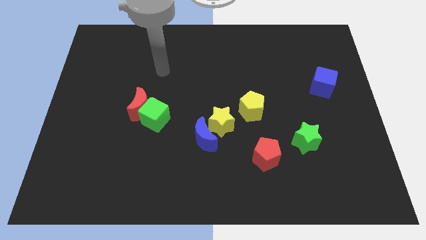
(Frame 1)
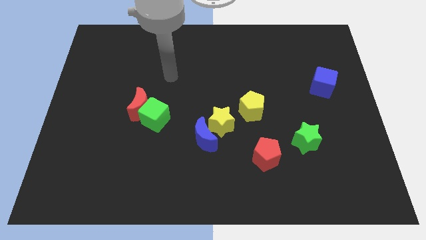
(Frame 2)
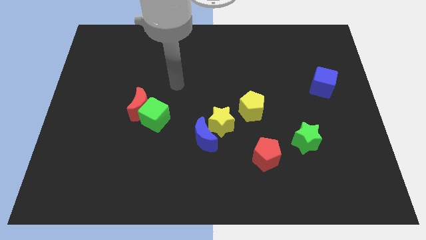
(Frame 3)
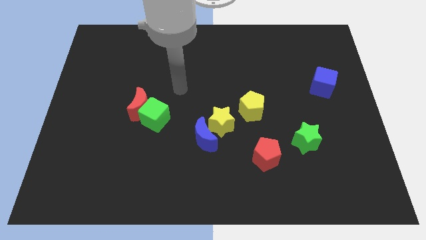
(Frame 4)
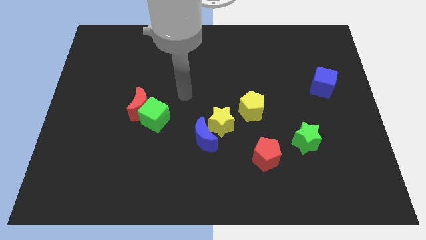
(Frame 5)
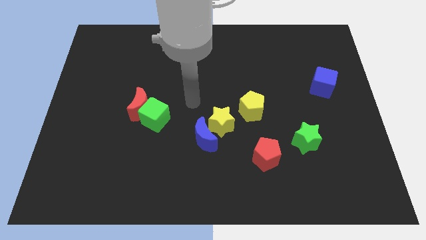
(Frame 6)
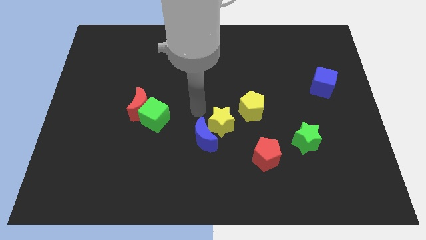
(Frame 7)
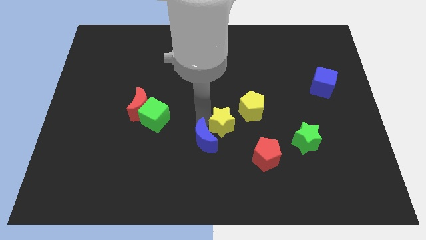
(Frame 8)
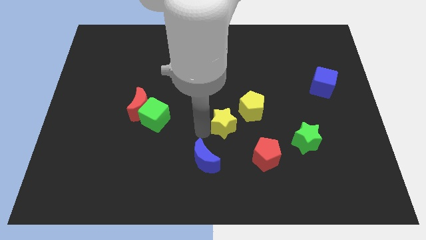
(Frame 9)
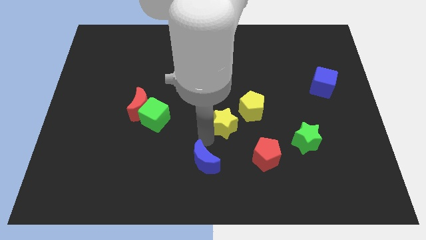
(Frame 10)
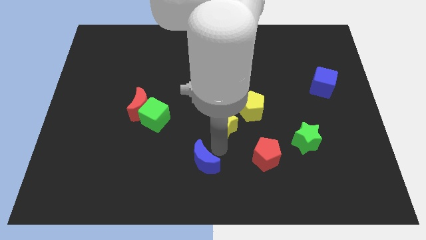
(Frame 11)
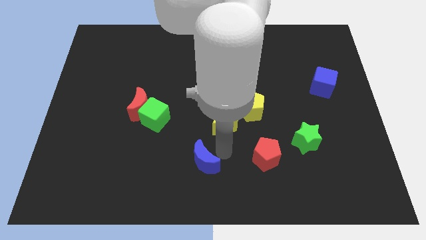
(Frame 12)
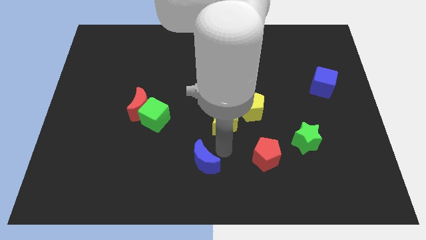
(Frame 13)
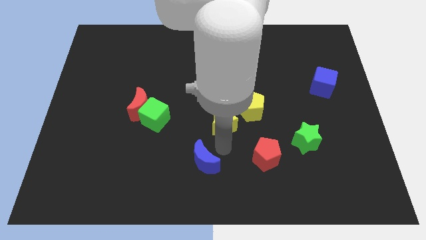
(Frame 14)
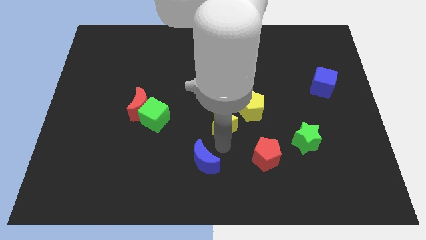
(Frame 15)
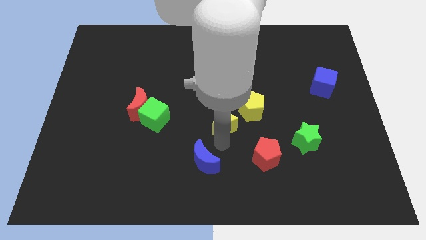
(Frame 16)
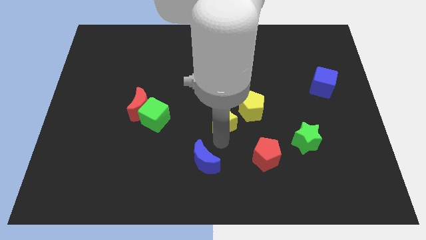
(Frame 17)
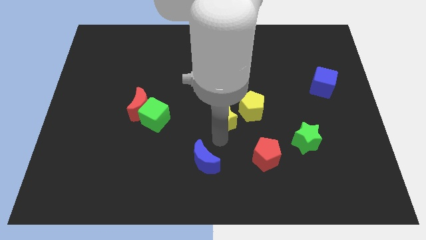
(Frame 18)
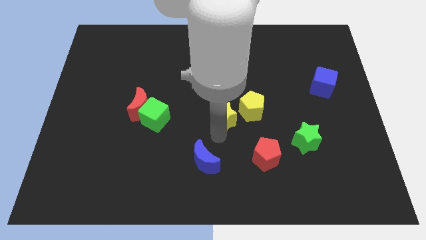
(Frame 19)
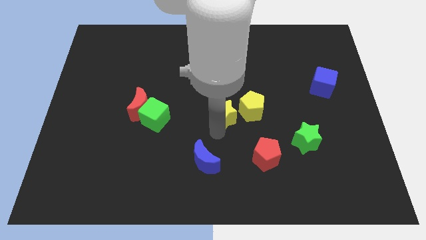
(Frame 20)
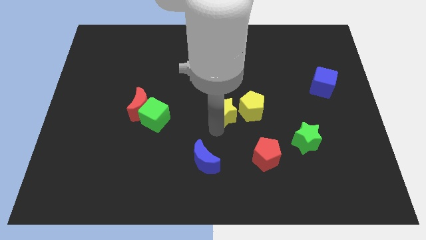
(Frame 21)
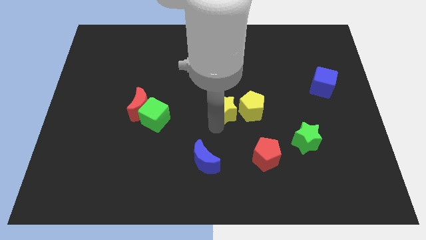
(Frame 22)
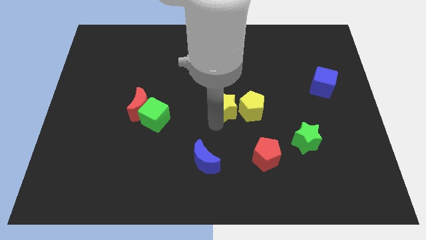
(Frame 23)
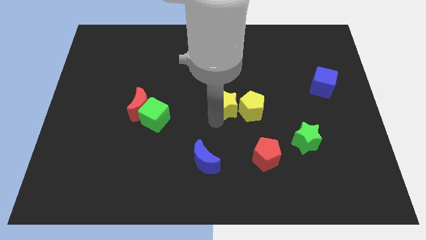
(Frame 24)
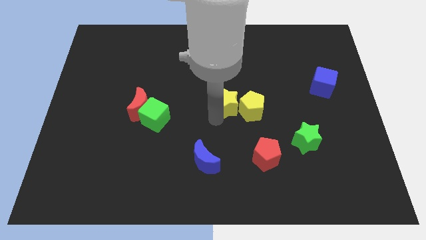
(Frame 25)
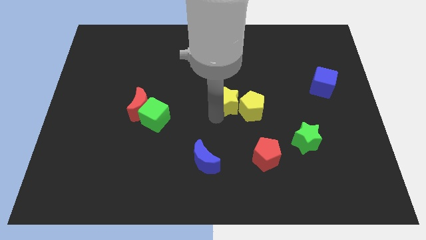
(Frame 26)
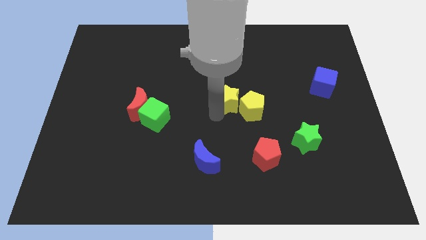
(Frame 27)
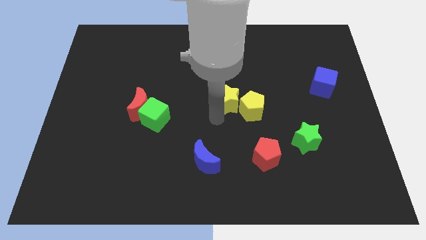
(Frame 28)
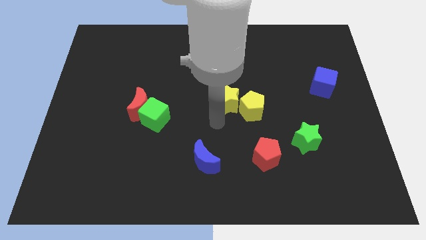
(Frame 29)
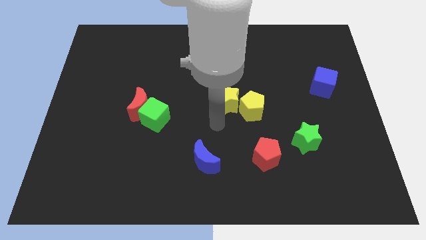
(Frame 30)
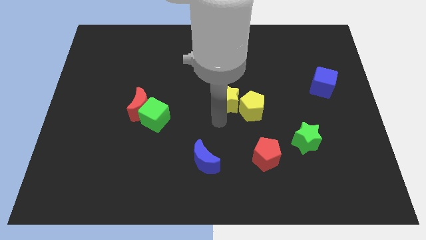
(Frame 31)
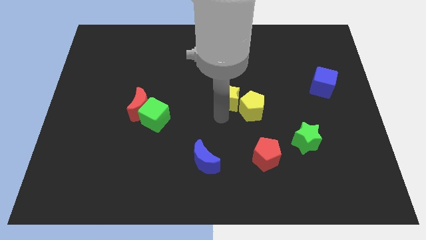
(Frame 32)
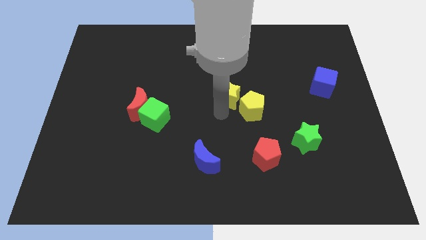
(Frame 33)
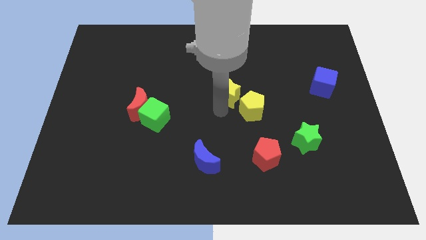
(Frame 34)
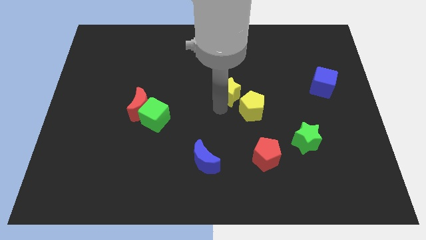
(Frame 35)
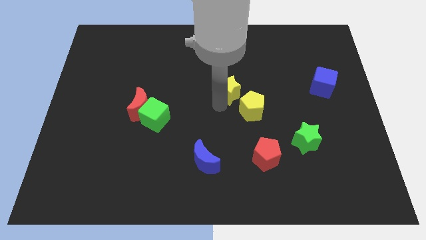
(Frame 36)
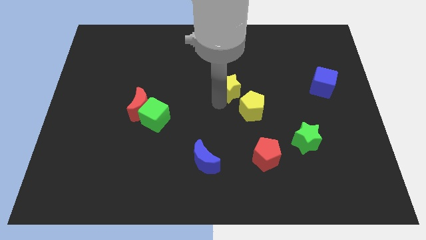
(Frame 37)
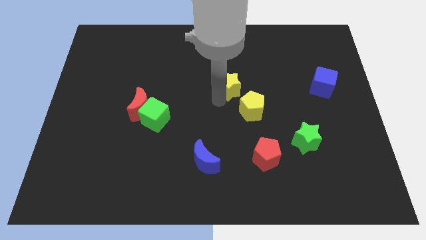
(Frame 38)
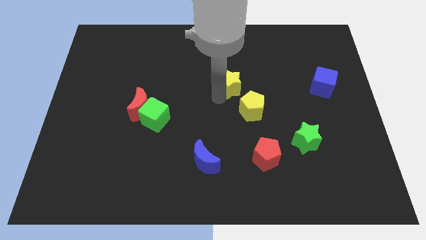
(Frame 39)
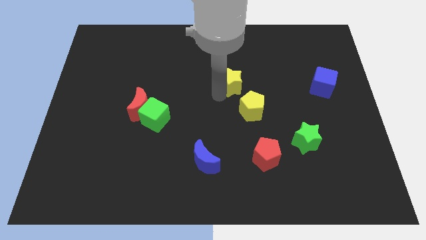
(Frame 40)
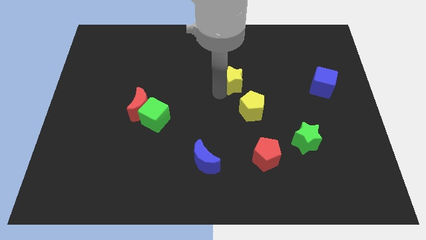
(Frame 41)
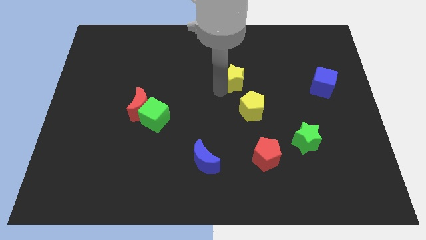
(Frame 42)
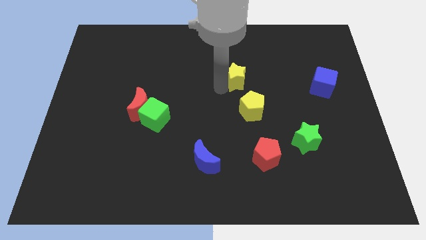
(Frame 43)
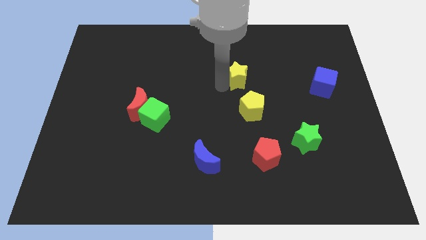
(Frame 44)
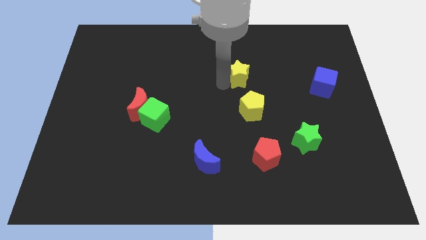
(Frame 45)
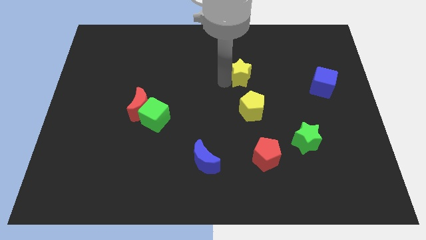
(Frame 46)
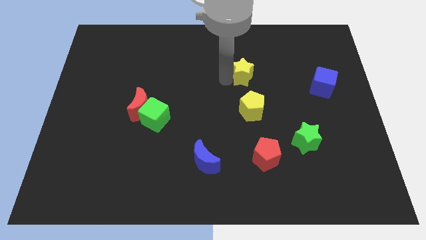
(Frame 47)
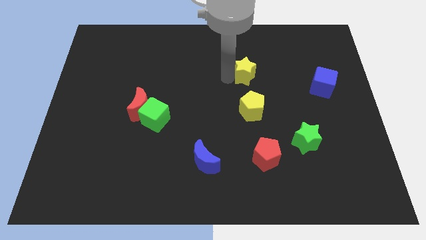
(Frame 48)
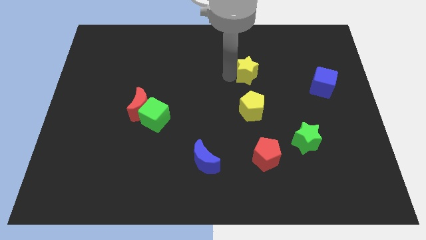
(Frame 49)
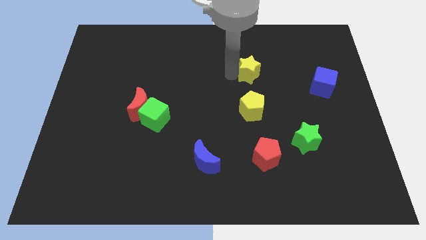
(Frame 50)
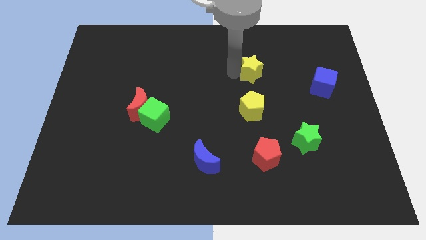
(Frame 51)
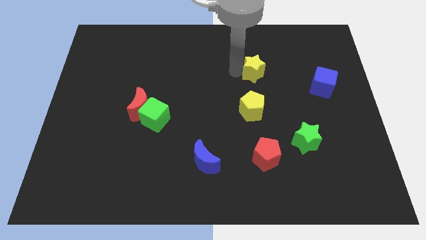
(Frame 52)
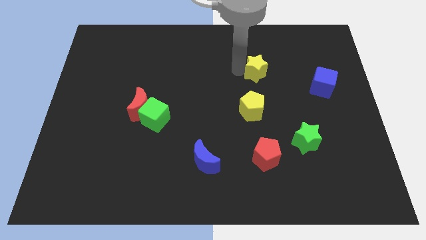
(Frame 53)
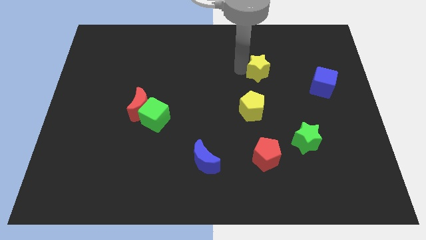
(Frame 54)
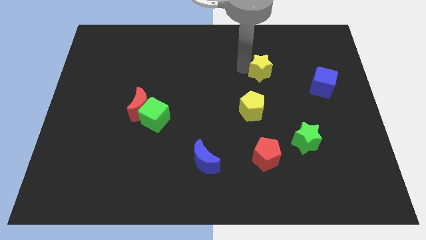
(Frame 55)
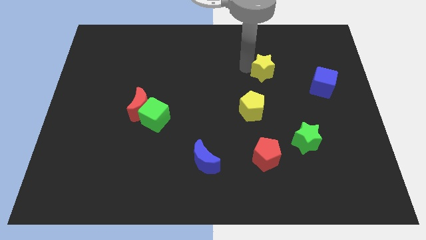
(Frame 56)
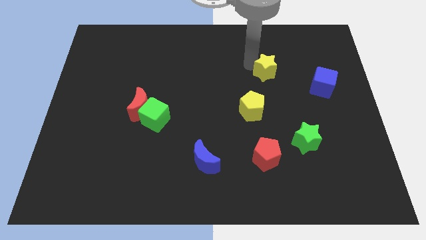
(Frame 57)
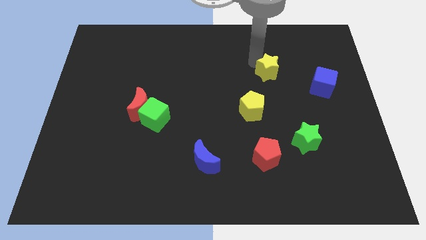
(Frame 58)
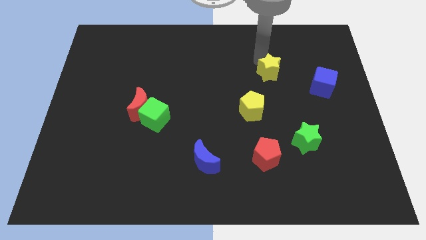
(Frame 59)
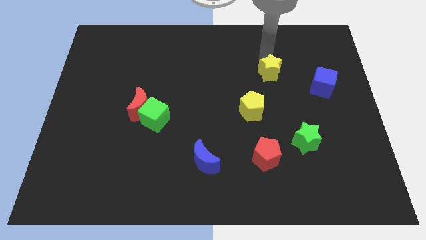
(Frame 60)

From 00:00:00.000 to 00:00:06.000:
push the yellow star left of the blue cube
